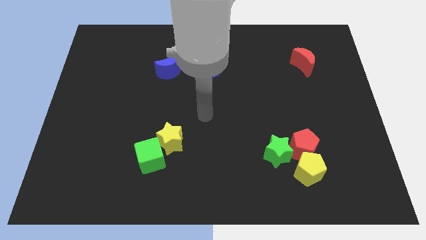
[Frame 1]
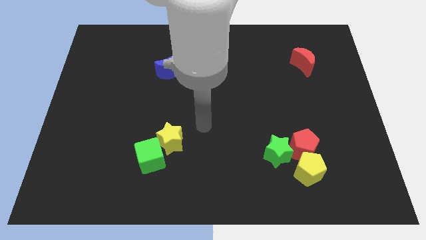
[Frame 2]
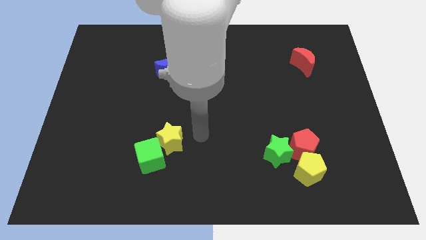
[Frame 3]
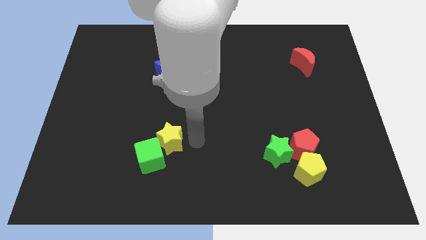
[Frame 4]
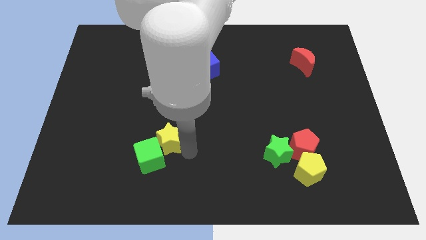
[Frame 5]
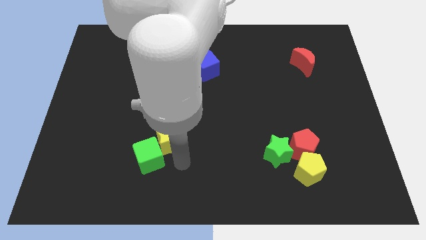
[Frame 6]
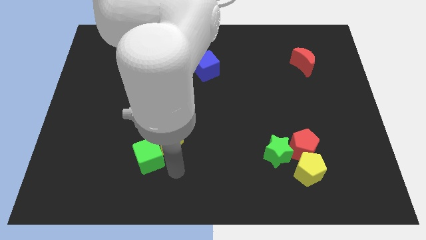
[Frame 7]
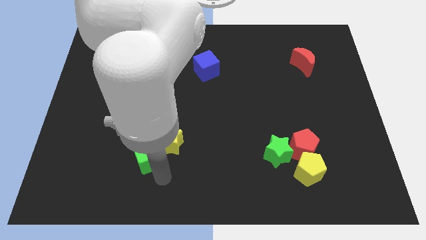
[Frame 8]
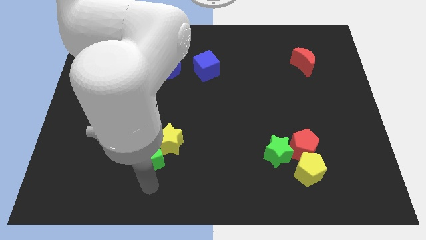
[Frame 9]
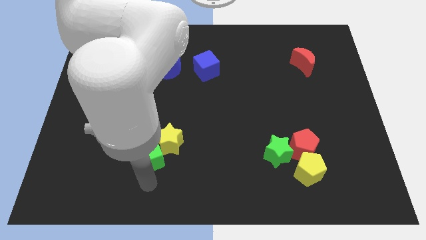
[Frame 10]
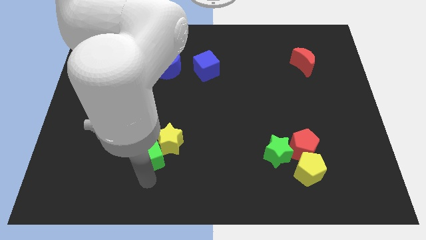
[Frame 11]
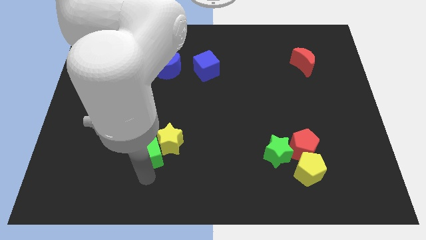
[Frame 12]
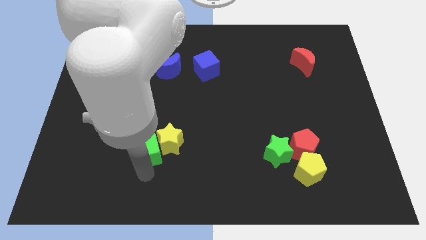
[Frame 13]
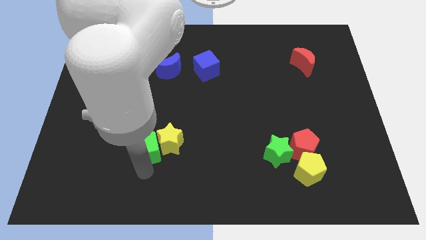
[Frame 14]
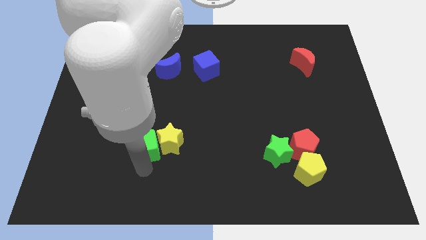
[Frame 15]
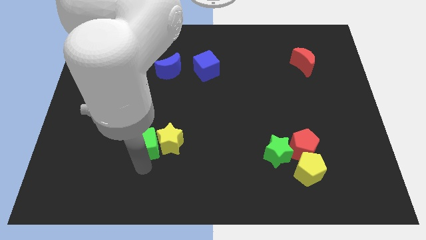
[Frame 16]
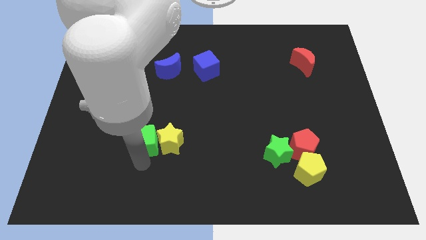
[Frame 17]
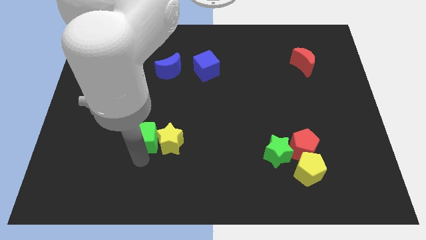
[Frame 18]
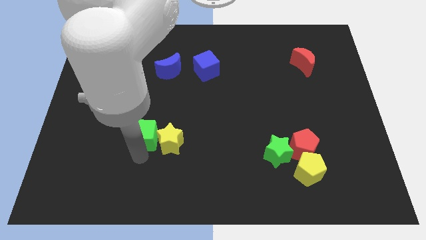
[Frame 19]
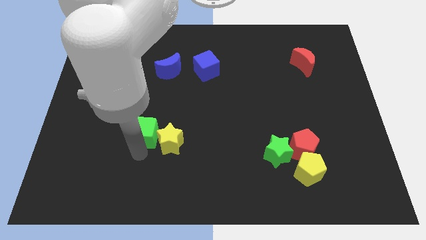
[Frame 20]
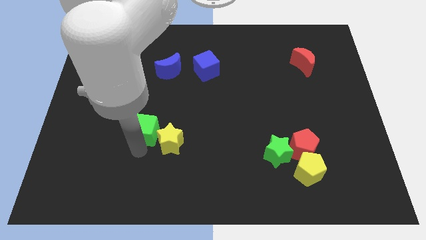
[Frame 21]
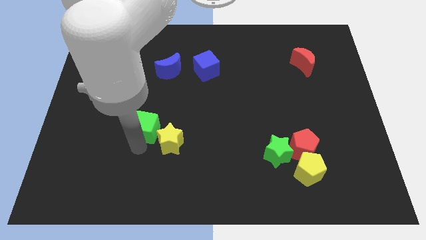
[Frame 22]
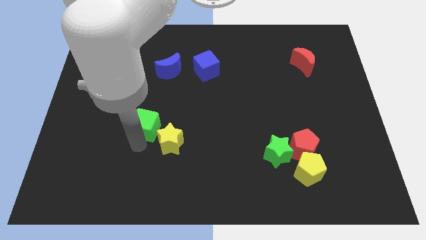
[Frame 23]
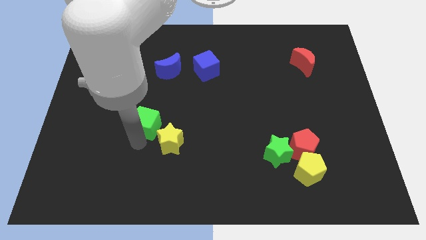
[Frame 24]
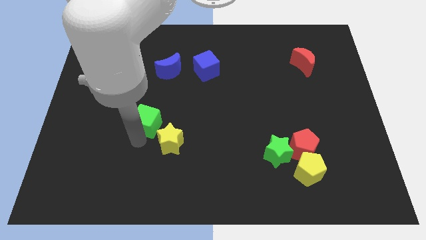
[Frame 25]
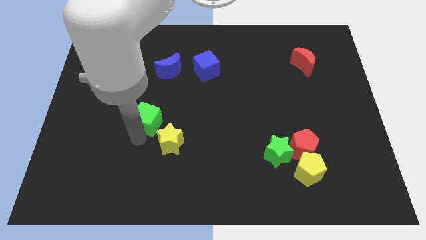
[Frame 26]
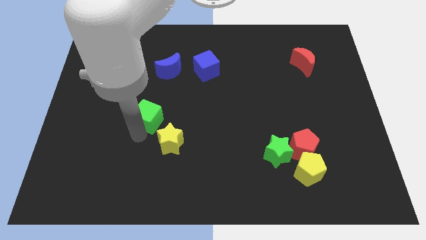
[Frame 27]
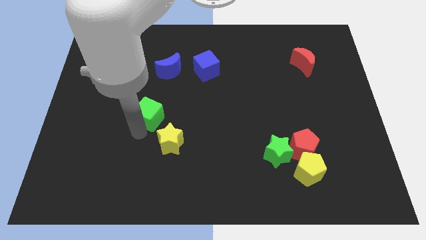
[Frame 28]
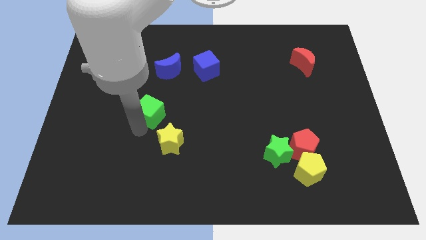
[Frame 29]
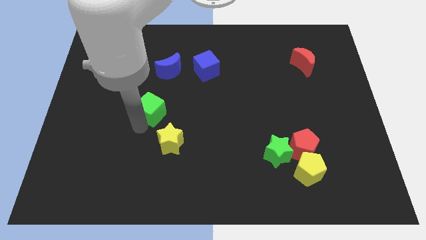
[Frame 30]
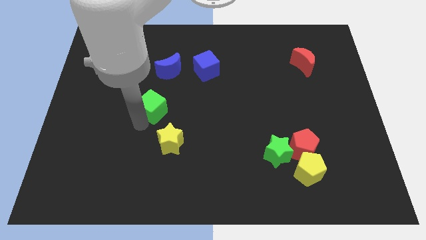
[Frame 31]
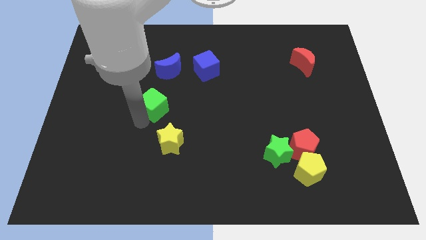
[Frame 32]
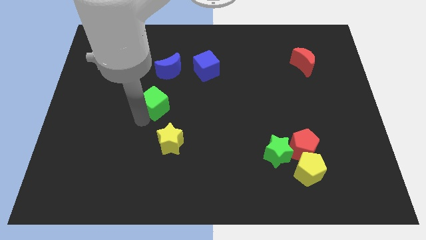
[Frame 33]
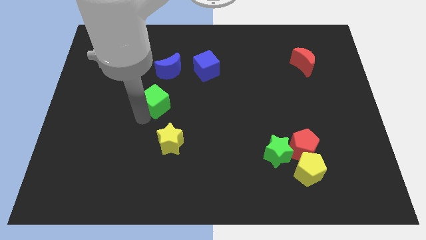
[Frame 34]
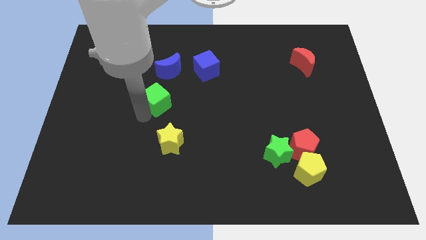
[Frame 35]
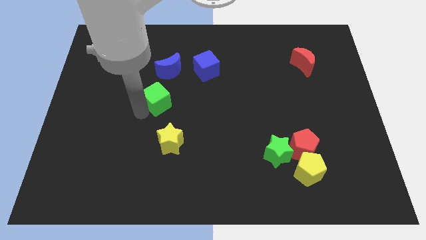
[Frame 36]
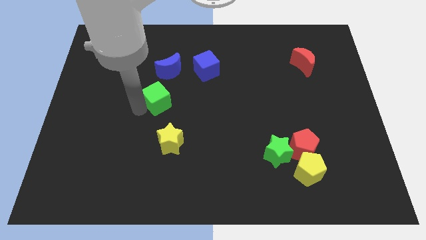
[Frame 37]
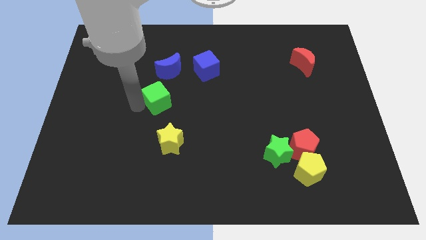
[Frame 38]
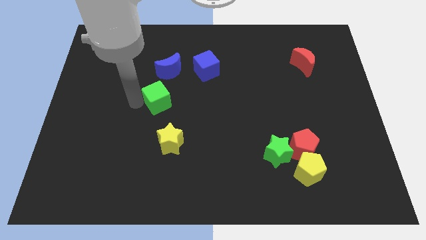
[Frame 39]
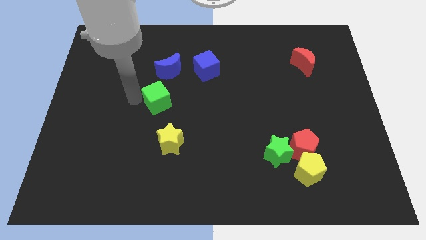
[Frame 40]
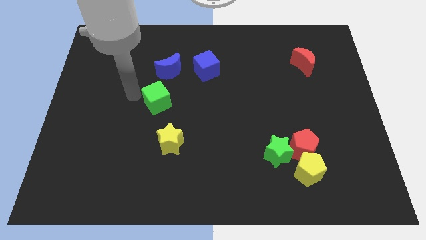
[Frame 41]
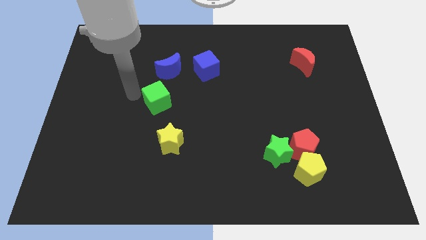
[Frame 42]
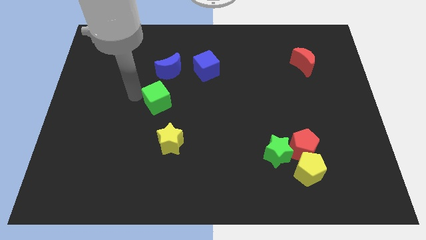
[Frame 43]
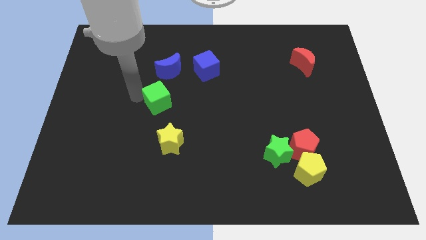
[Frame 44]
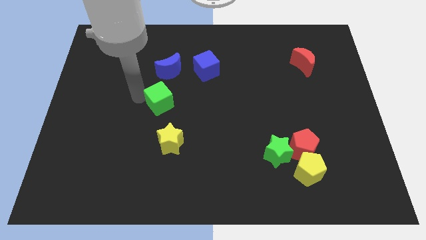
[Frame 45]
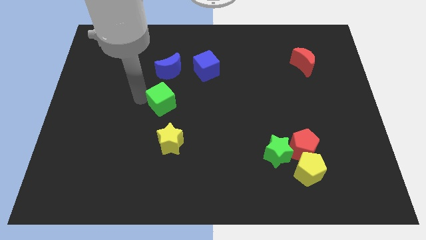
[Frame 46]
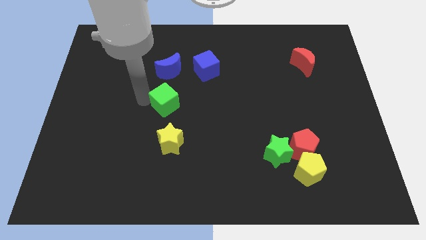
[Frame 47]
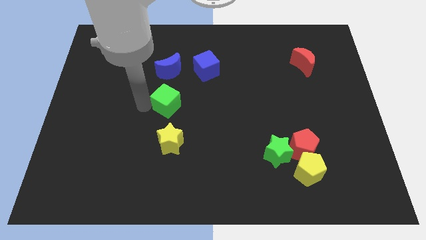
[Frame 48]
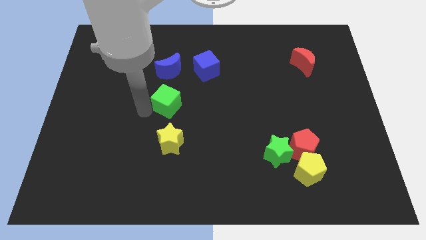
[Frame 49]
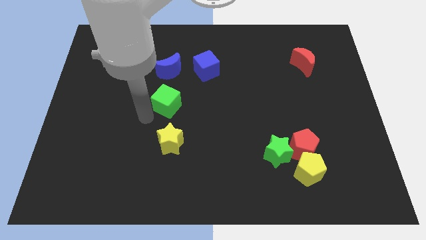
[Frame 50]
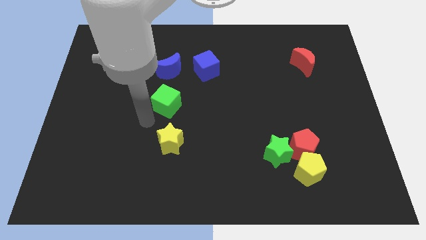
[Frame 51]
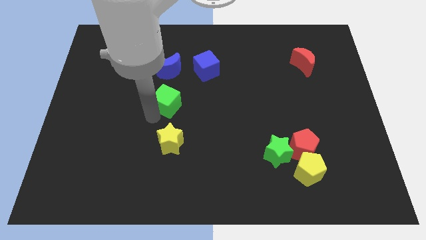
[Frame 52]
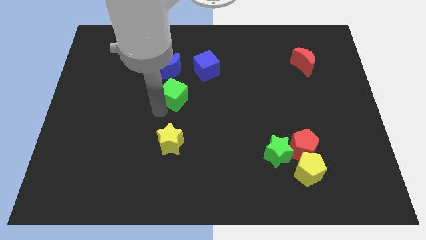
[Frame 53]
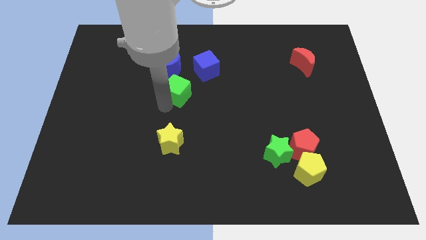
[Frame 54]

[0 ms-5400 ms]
put the green cube diagonally down and to the right of the blue moon

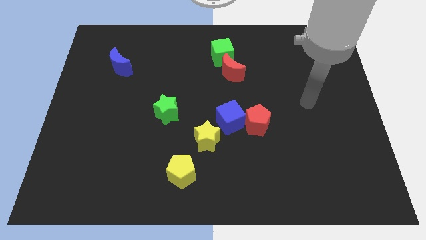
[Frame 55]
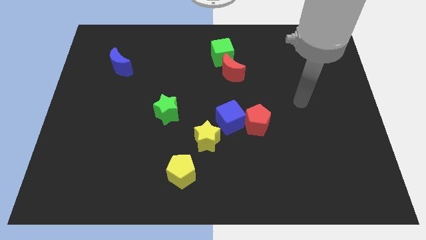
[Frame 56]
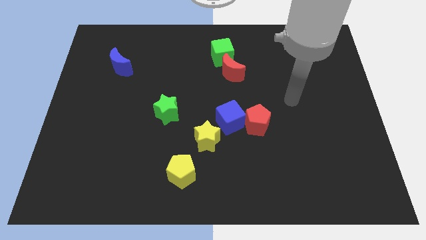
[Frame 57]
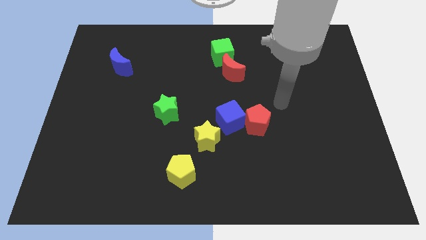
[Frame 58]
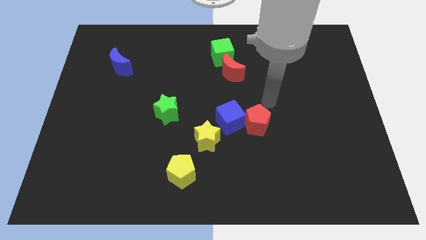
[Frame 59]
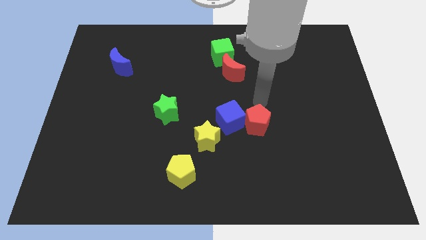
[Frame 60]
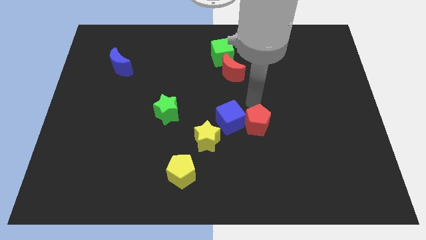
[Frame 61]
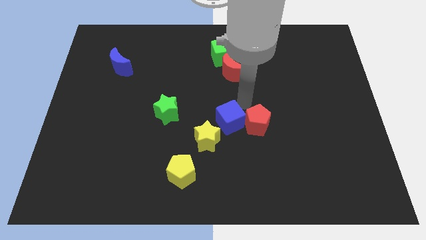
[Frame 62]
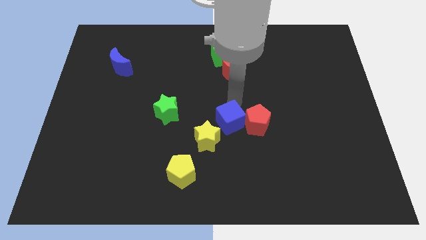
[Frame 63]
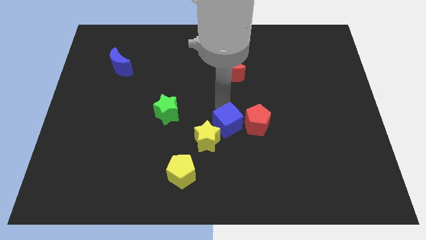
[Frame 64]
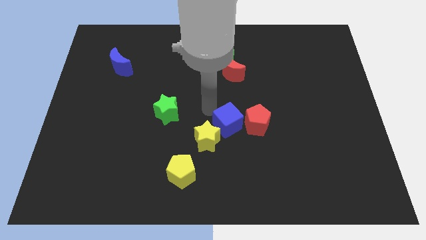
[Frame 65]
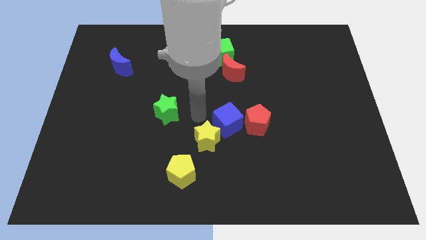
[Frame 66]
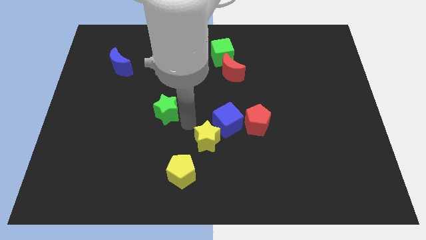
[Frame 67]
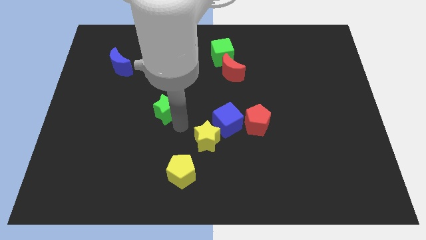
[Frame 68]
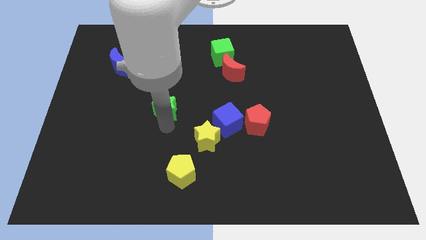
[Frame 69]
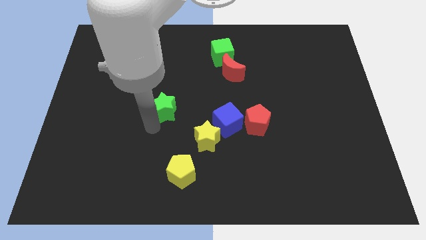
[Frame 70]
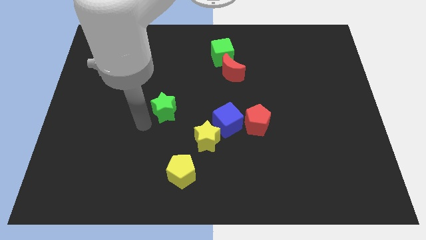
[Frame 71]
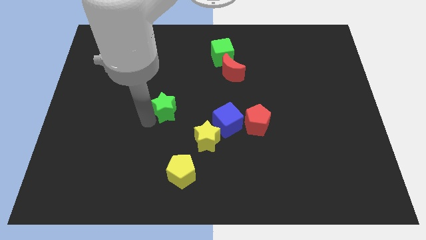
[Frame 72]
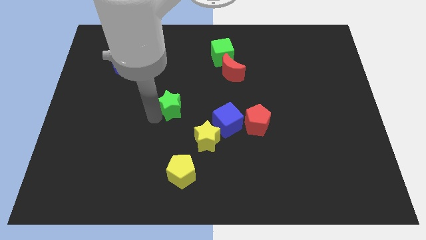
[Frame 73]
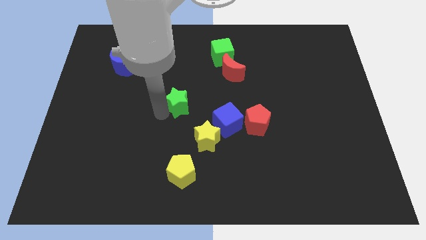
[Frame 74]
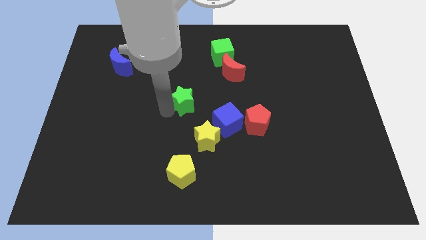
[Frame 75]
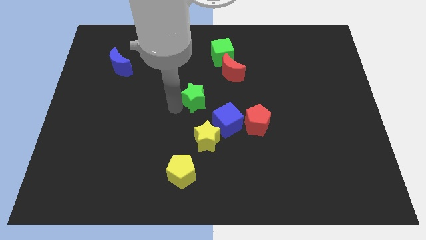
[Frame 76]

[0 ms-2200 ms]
slide the green star to the bottom left side of the red moon
